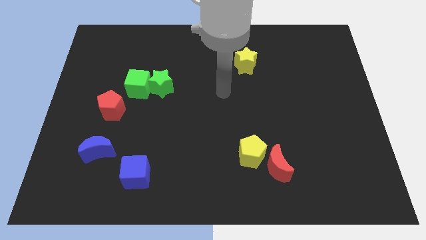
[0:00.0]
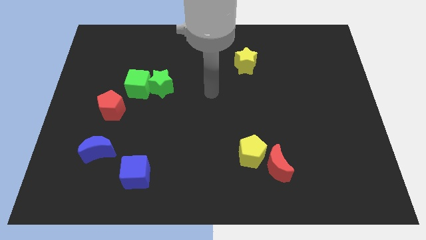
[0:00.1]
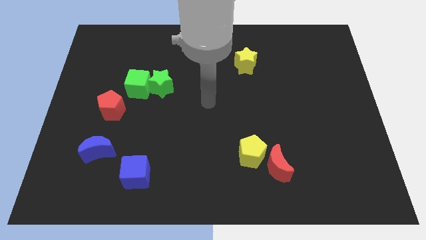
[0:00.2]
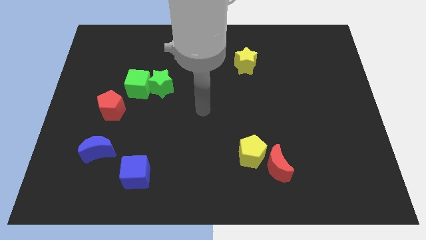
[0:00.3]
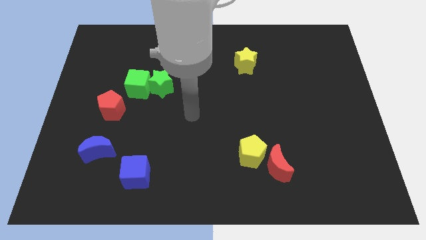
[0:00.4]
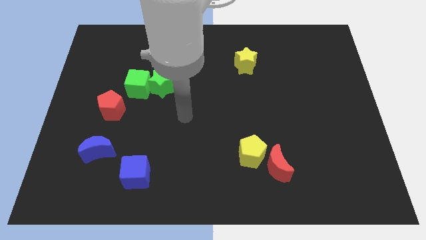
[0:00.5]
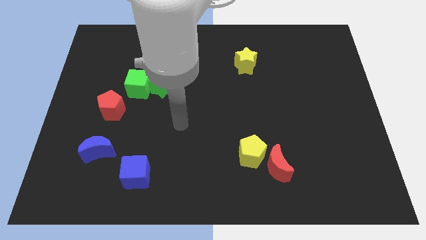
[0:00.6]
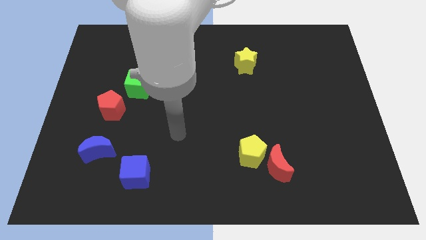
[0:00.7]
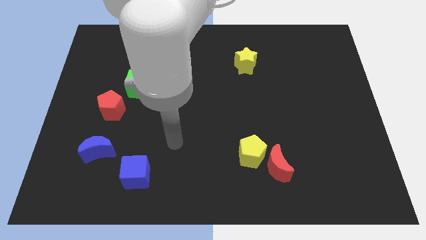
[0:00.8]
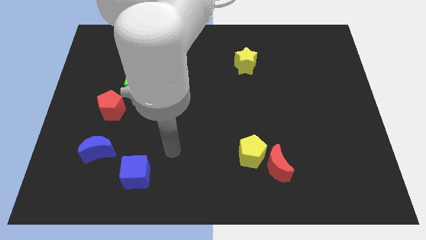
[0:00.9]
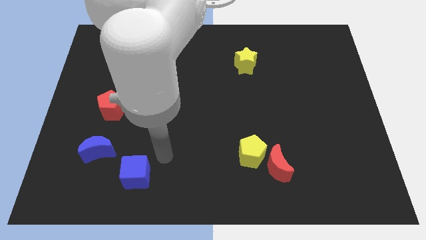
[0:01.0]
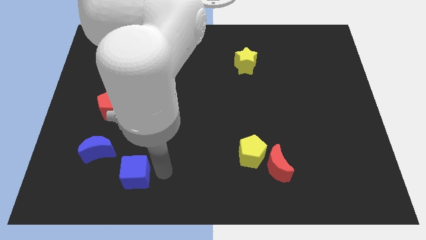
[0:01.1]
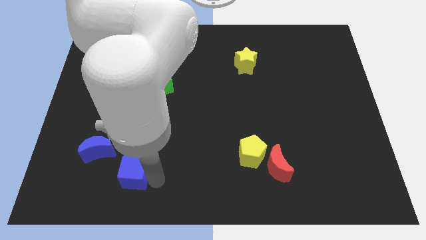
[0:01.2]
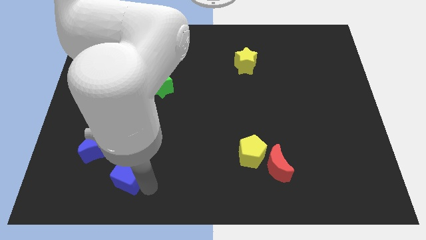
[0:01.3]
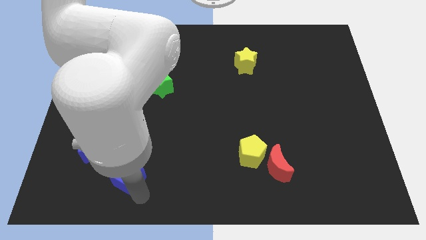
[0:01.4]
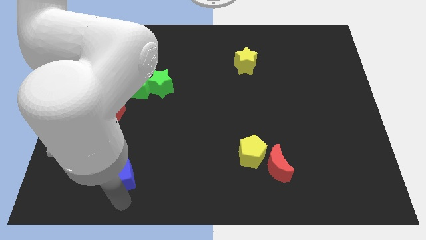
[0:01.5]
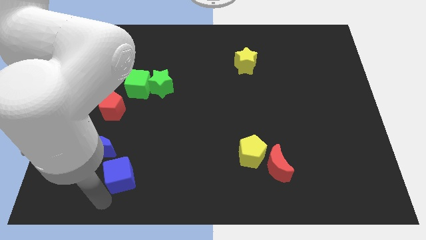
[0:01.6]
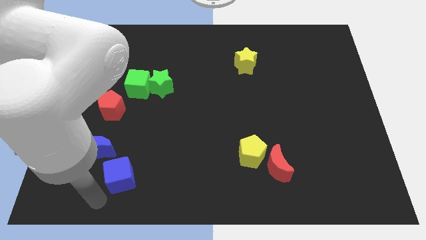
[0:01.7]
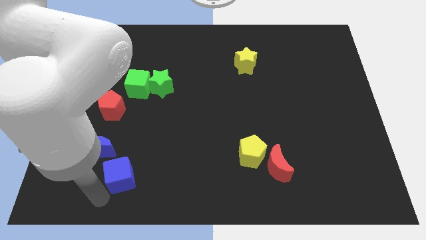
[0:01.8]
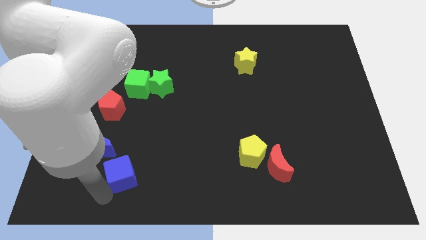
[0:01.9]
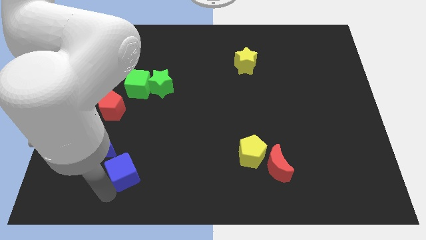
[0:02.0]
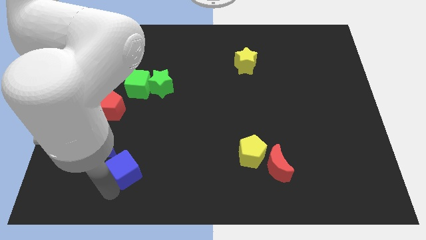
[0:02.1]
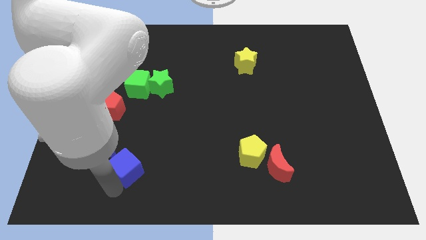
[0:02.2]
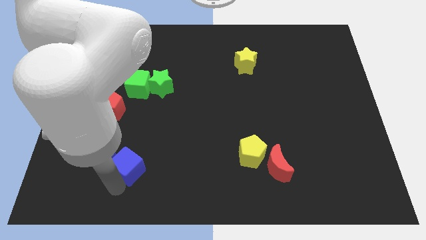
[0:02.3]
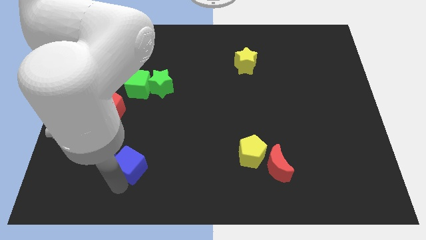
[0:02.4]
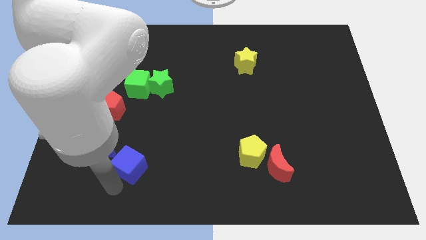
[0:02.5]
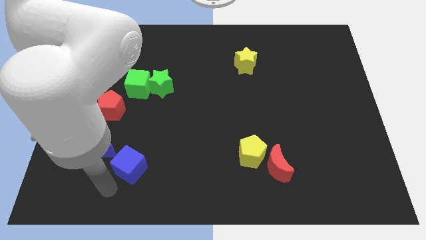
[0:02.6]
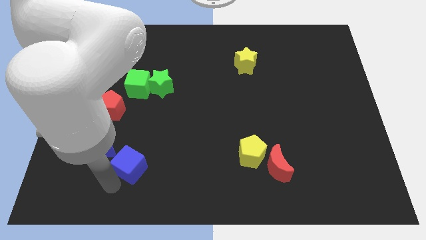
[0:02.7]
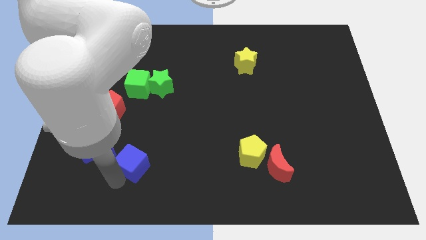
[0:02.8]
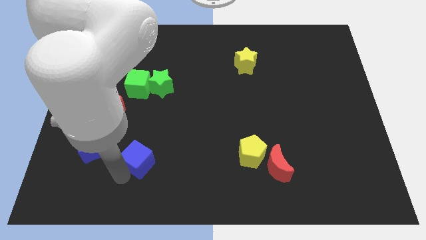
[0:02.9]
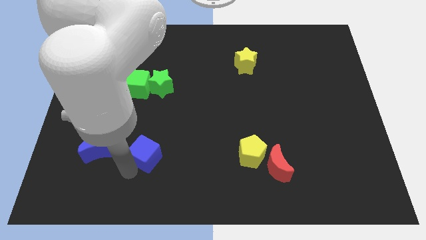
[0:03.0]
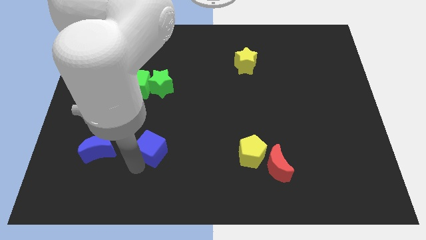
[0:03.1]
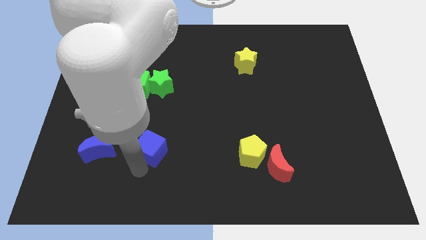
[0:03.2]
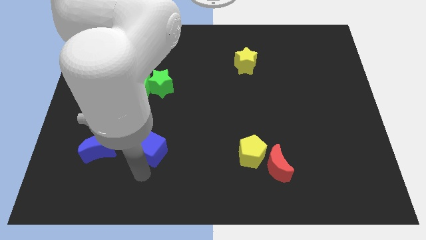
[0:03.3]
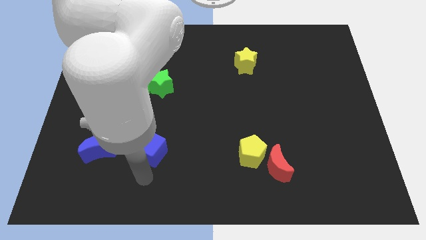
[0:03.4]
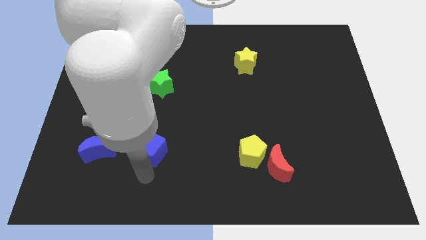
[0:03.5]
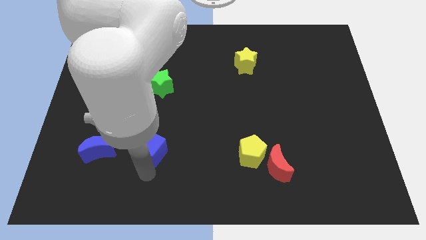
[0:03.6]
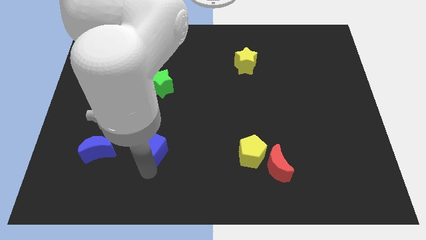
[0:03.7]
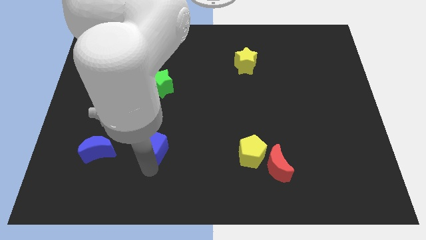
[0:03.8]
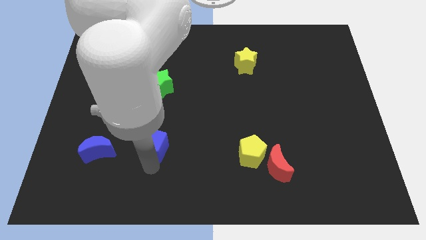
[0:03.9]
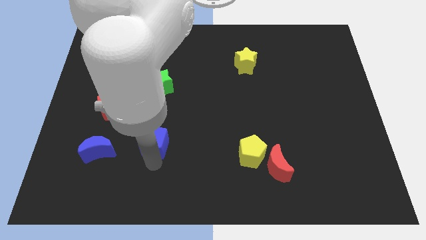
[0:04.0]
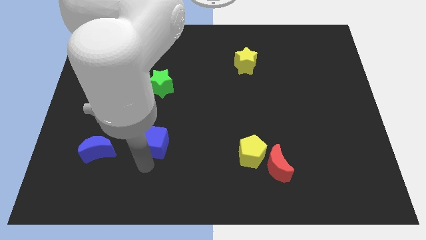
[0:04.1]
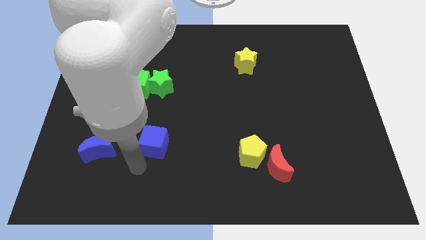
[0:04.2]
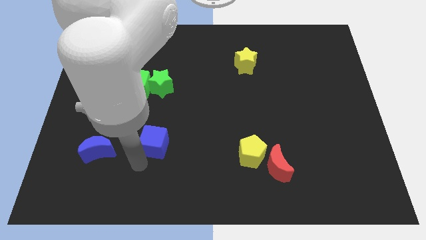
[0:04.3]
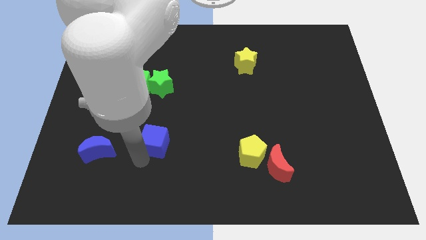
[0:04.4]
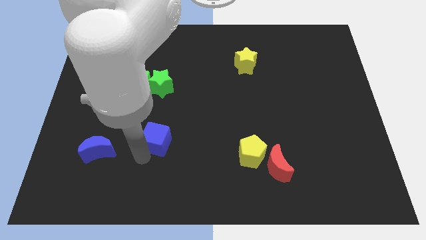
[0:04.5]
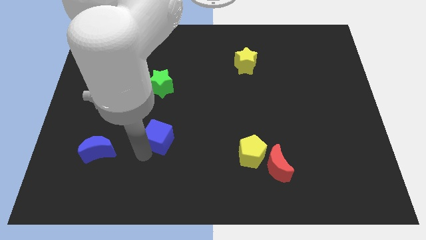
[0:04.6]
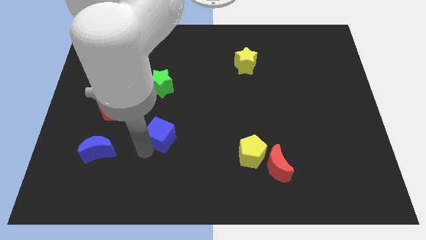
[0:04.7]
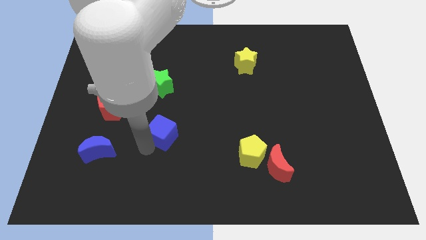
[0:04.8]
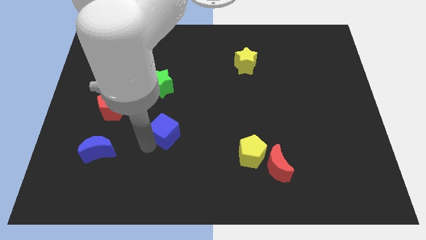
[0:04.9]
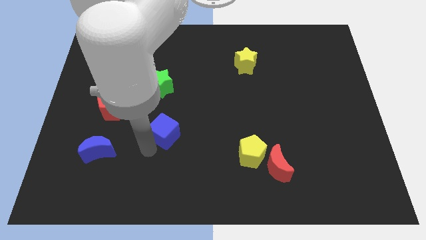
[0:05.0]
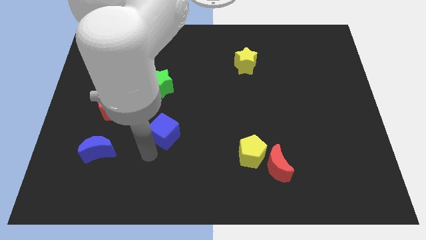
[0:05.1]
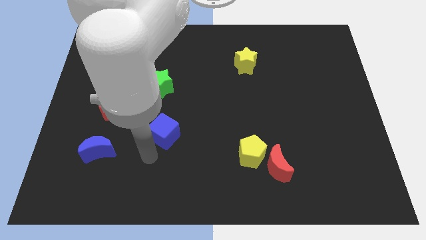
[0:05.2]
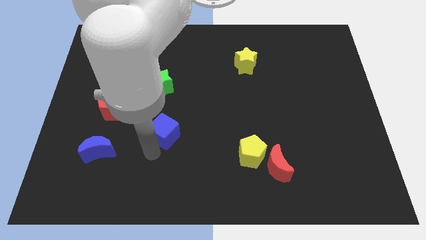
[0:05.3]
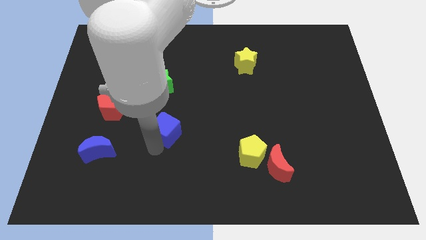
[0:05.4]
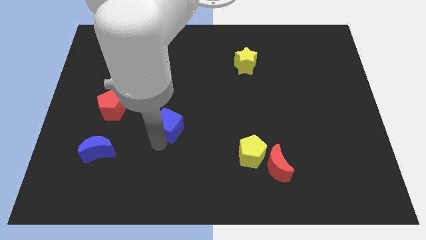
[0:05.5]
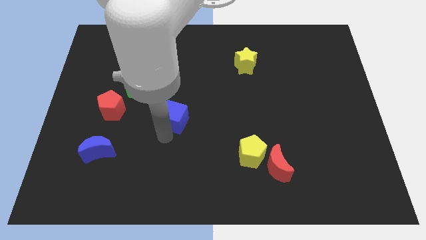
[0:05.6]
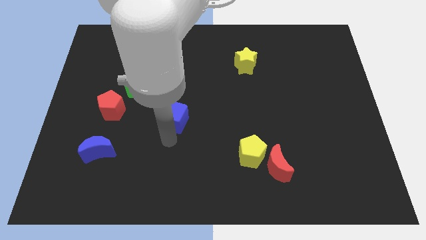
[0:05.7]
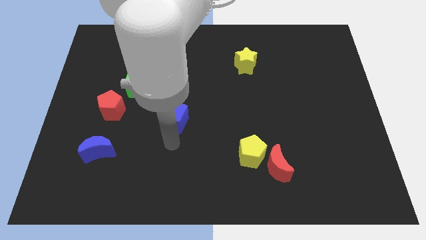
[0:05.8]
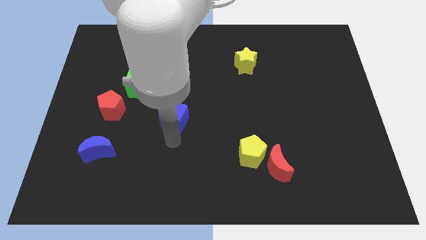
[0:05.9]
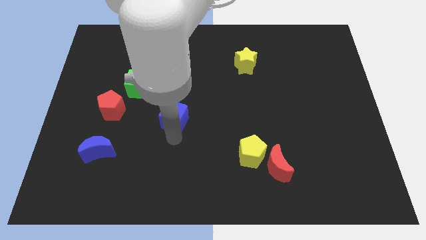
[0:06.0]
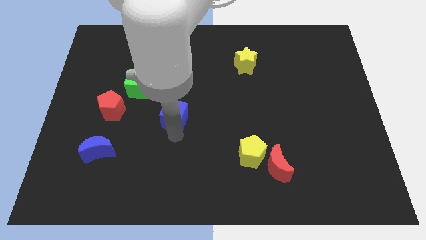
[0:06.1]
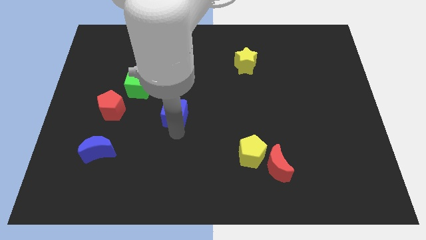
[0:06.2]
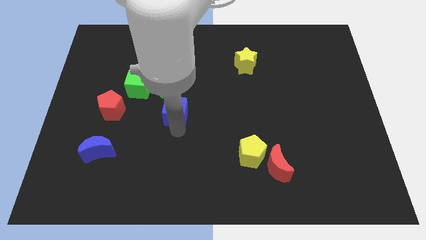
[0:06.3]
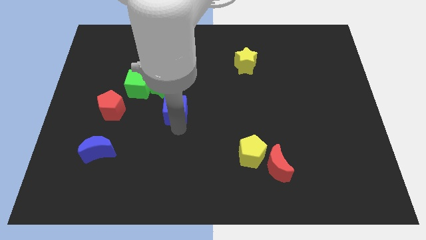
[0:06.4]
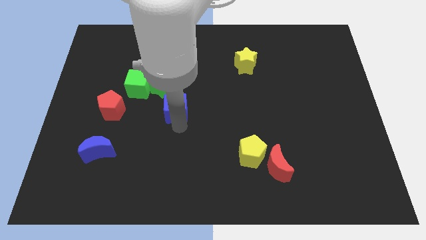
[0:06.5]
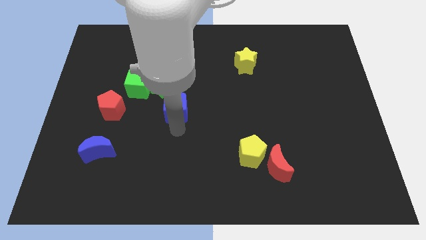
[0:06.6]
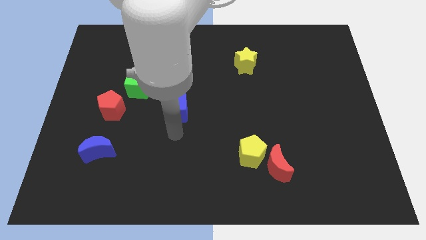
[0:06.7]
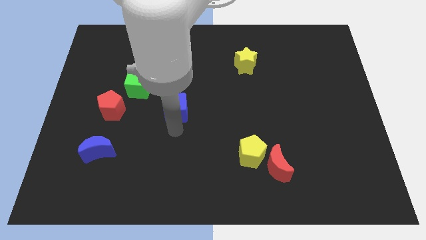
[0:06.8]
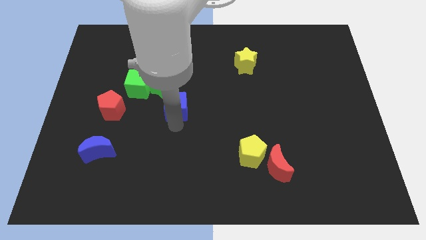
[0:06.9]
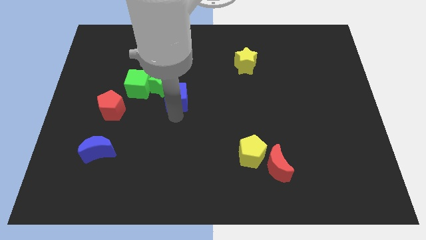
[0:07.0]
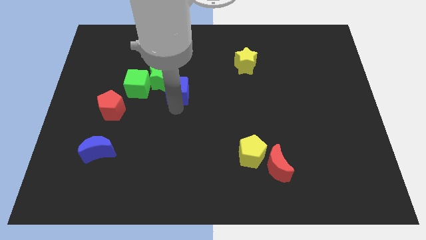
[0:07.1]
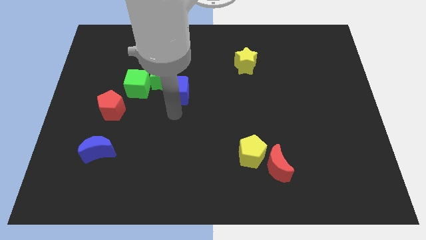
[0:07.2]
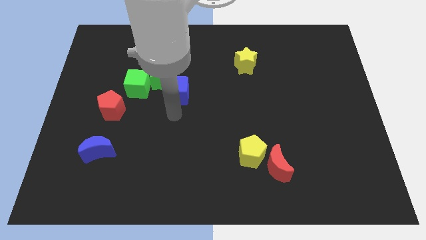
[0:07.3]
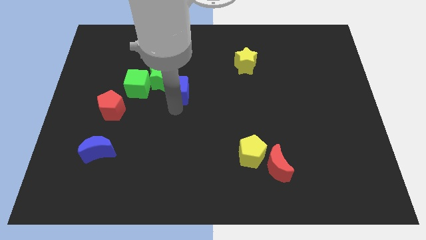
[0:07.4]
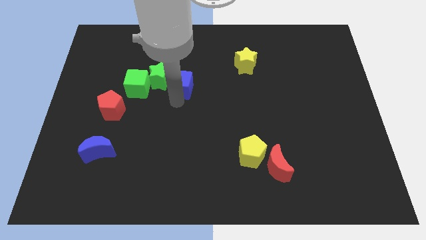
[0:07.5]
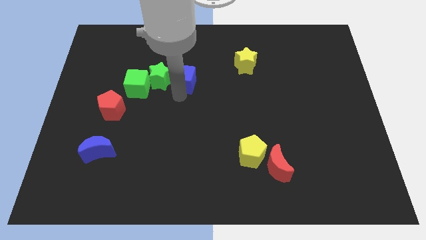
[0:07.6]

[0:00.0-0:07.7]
slide the blue cube to the top right side of the green star
